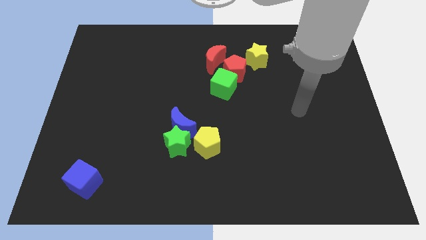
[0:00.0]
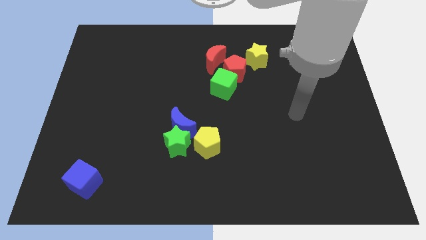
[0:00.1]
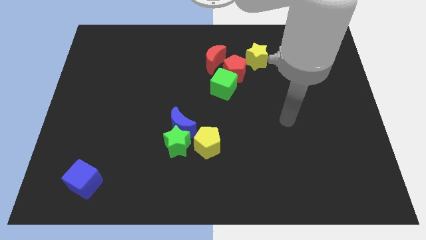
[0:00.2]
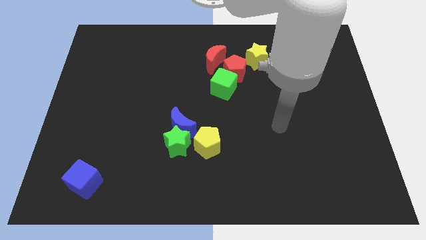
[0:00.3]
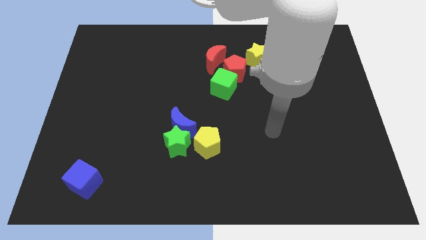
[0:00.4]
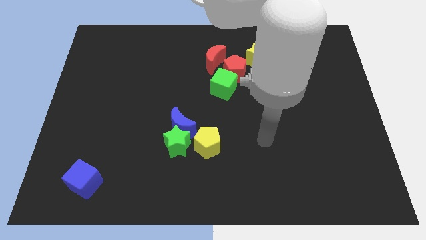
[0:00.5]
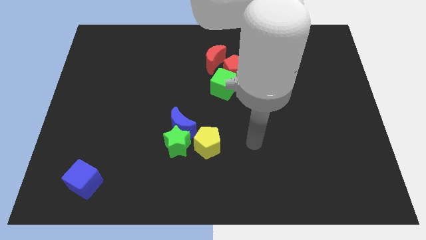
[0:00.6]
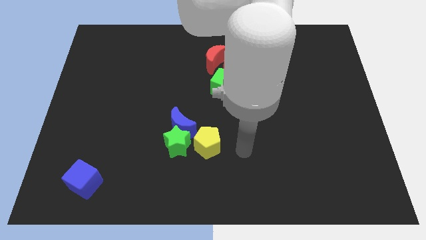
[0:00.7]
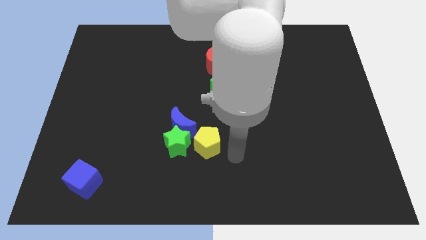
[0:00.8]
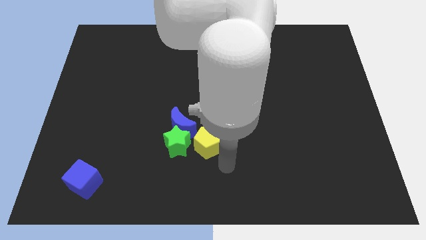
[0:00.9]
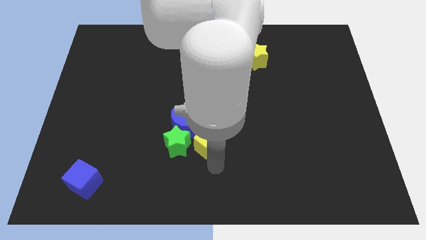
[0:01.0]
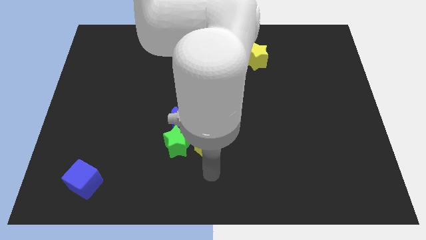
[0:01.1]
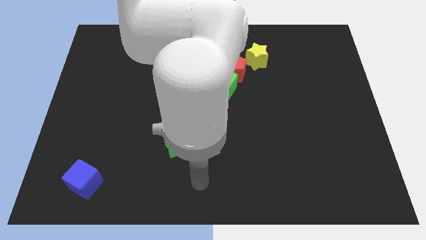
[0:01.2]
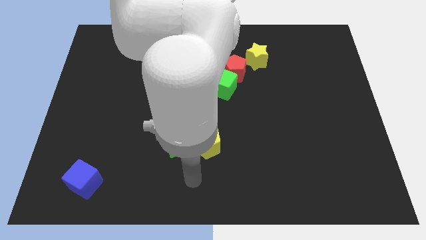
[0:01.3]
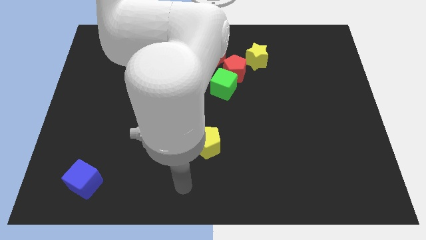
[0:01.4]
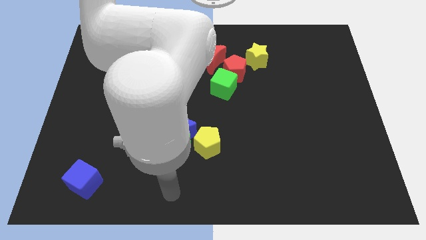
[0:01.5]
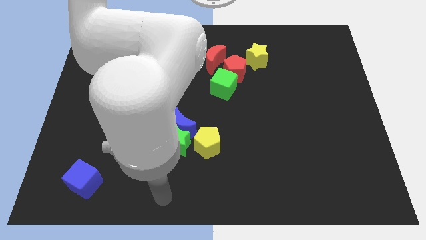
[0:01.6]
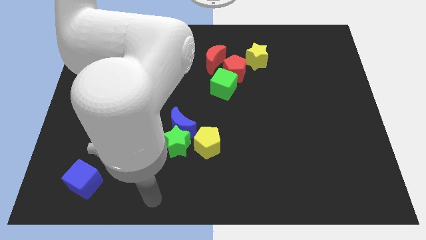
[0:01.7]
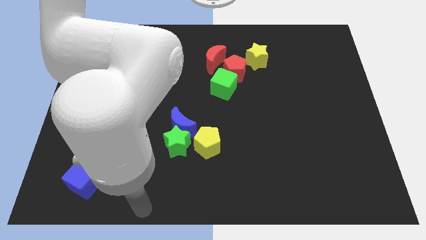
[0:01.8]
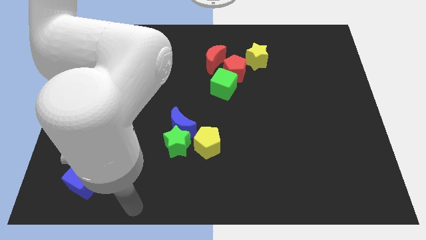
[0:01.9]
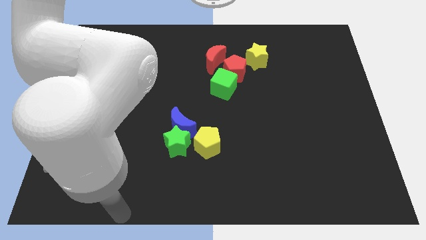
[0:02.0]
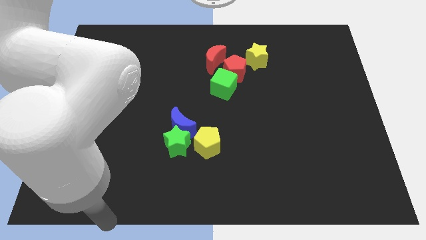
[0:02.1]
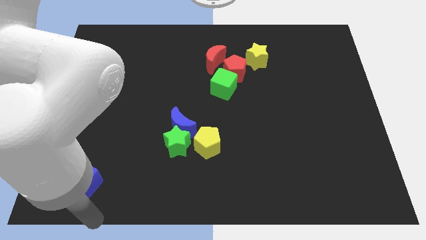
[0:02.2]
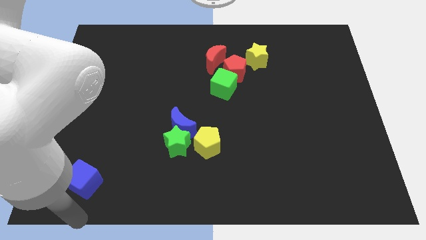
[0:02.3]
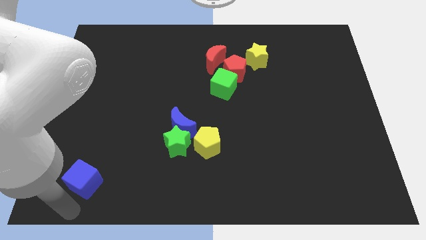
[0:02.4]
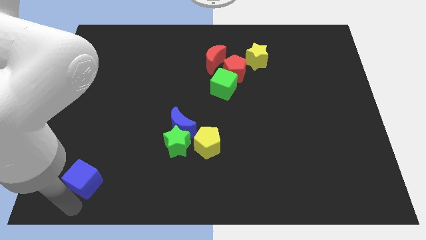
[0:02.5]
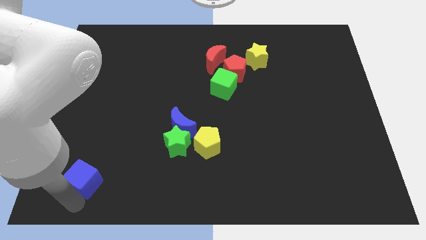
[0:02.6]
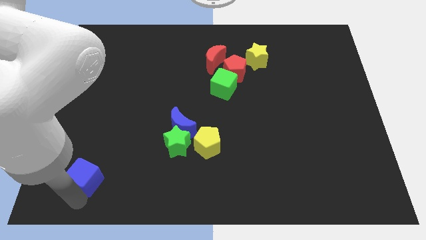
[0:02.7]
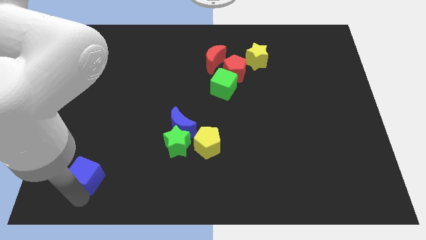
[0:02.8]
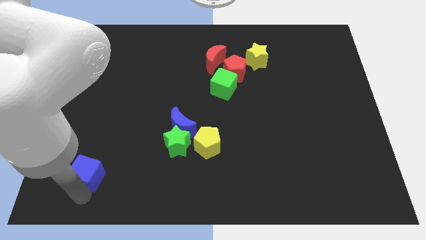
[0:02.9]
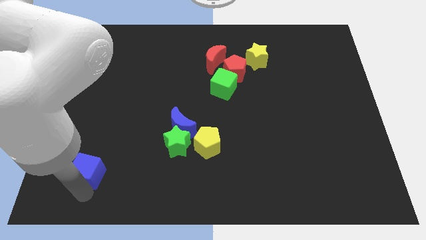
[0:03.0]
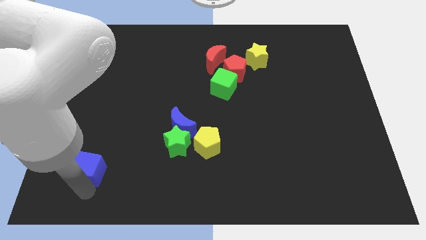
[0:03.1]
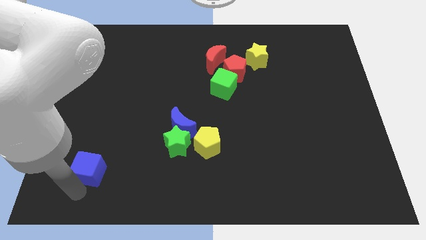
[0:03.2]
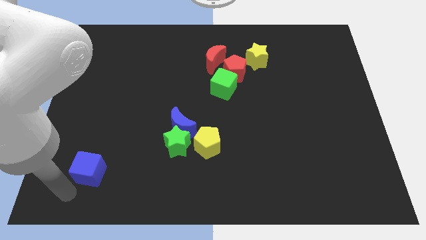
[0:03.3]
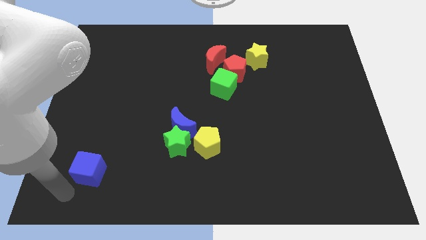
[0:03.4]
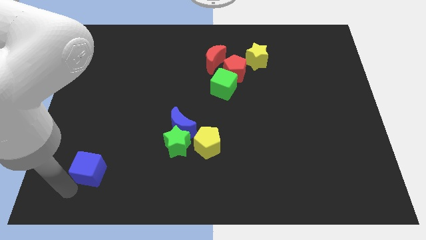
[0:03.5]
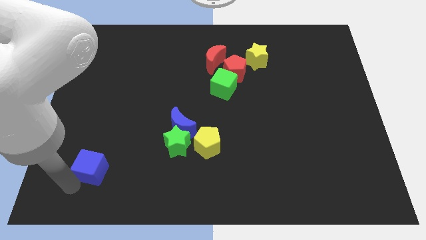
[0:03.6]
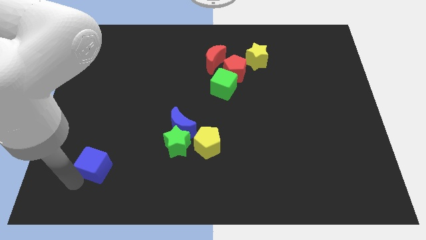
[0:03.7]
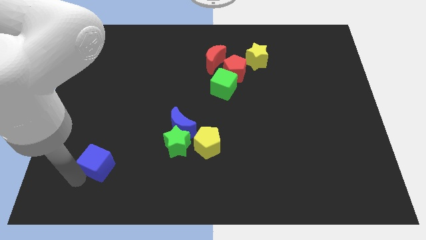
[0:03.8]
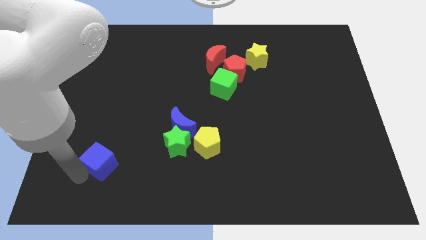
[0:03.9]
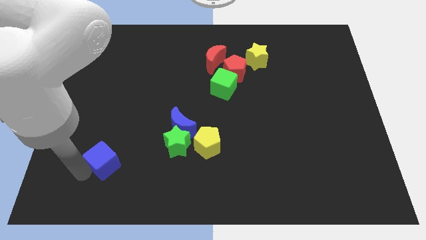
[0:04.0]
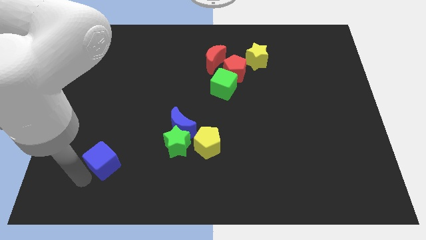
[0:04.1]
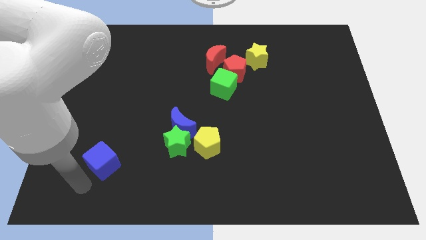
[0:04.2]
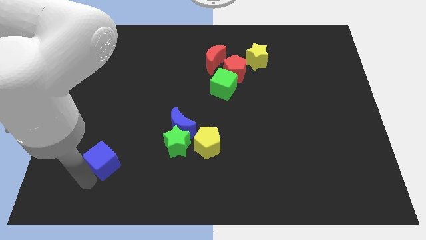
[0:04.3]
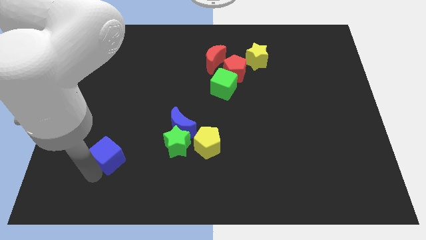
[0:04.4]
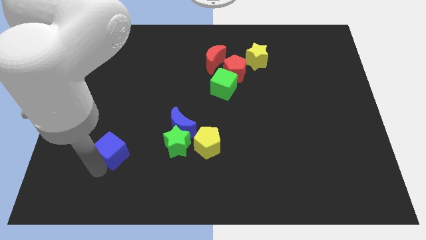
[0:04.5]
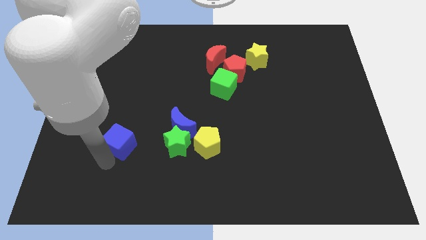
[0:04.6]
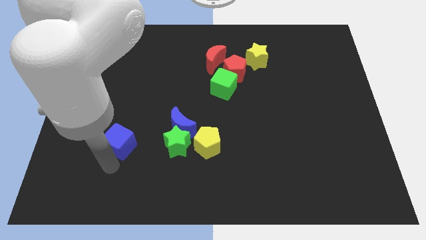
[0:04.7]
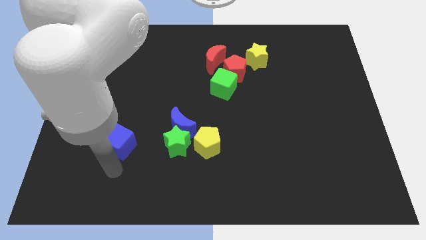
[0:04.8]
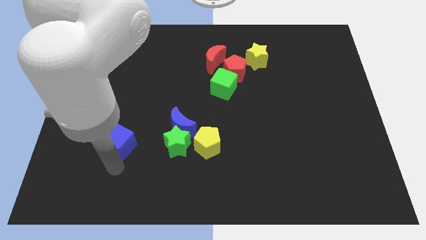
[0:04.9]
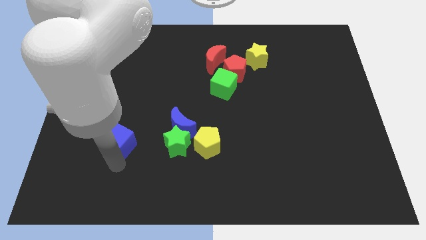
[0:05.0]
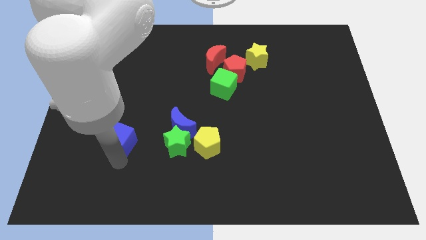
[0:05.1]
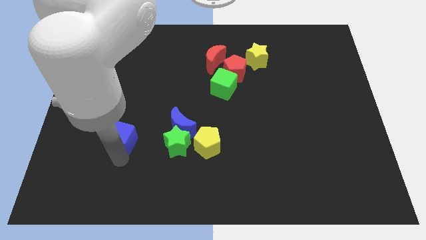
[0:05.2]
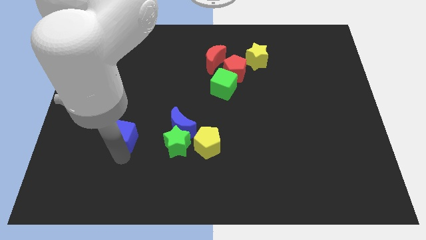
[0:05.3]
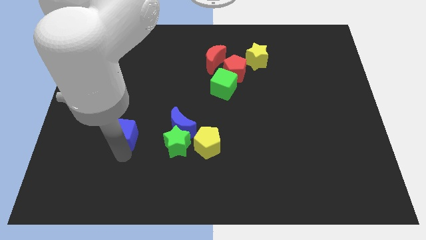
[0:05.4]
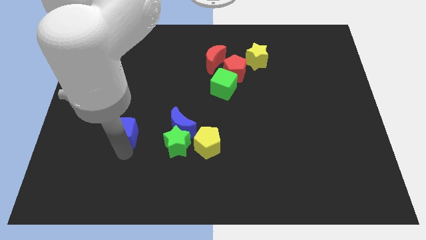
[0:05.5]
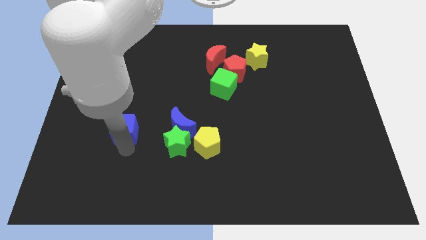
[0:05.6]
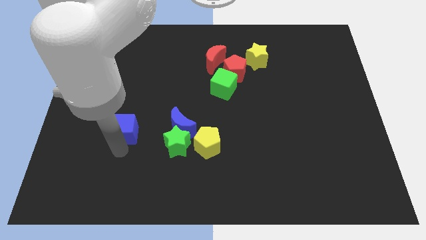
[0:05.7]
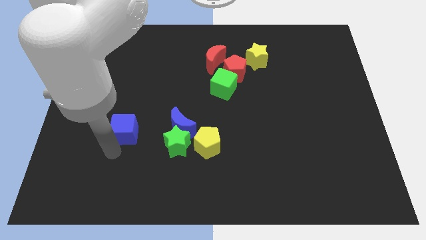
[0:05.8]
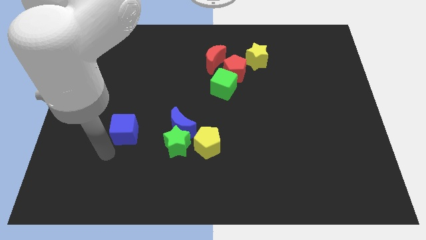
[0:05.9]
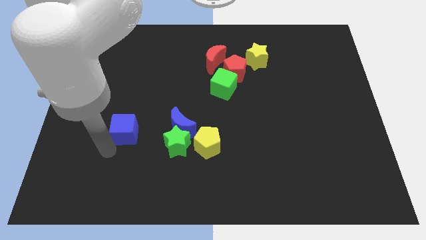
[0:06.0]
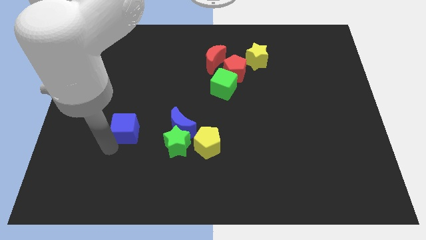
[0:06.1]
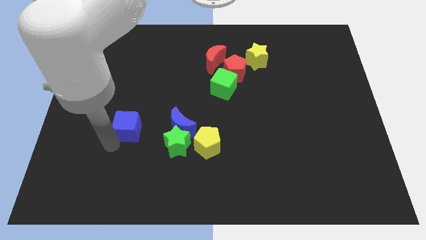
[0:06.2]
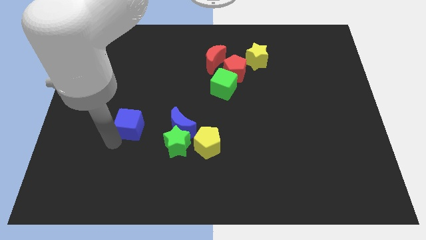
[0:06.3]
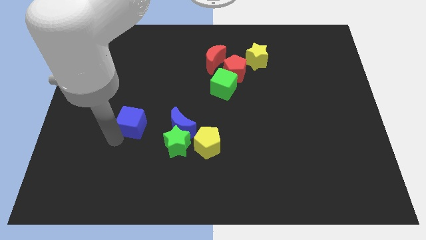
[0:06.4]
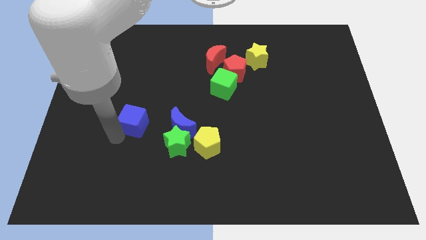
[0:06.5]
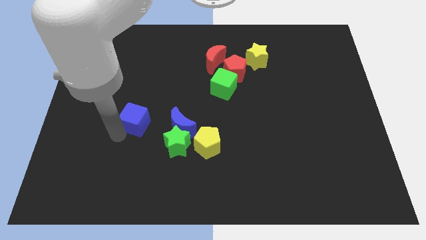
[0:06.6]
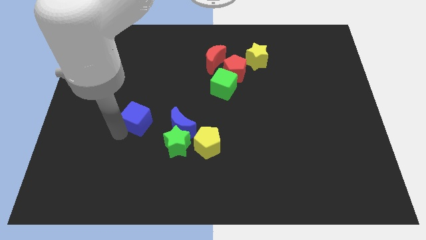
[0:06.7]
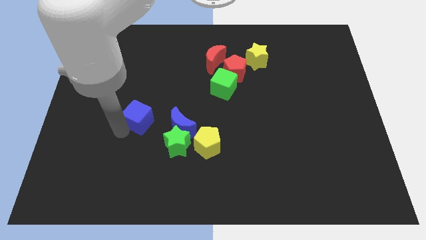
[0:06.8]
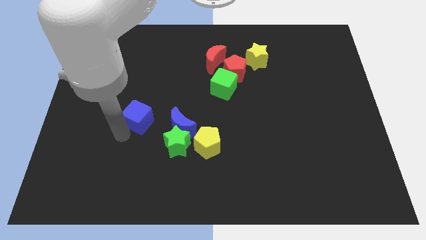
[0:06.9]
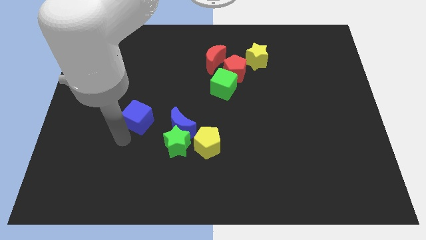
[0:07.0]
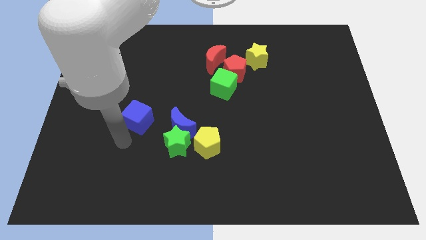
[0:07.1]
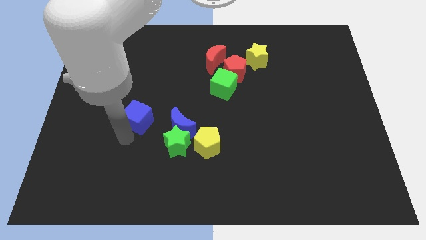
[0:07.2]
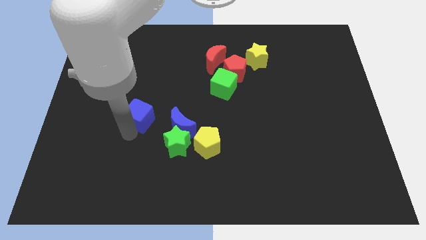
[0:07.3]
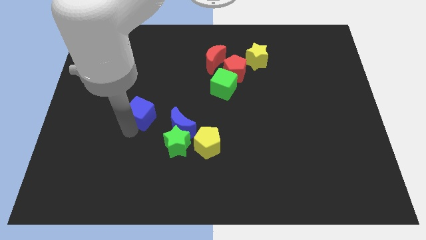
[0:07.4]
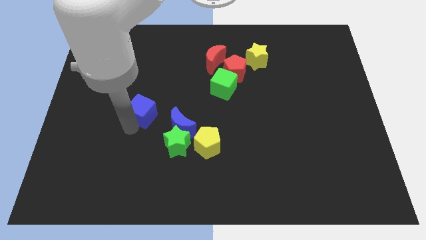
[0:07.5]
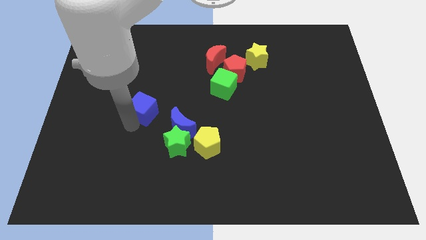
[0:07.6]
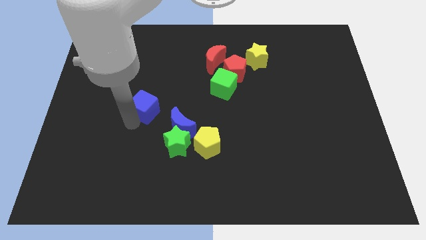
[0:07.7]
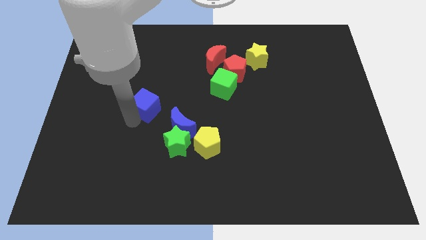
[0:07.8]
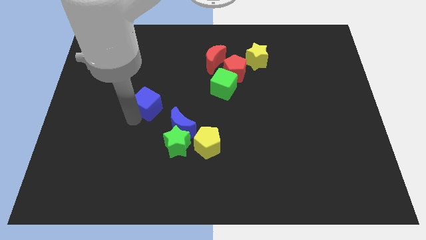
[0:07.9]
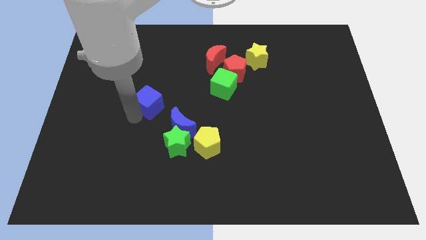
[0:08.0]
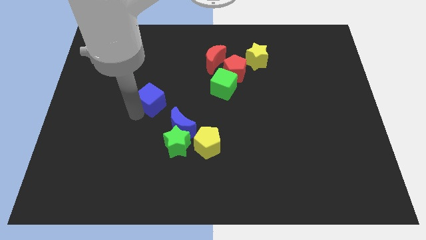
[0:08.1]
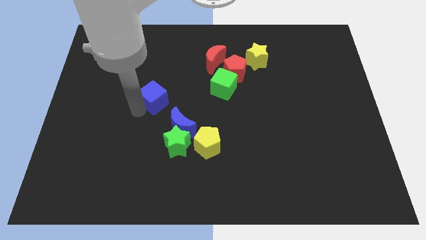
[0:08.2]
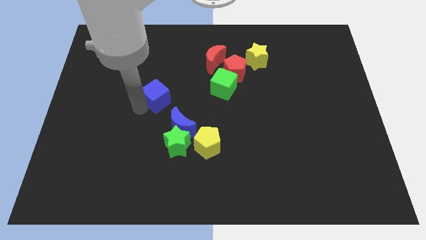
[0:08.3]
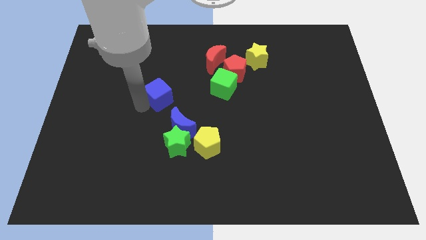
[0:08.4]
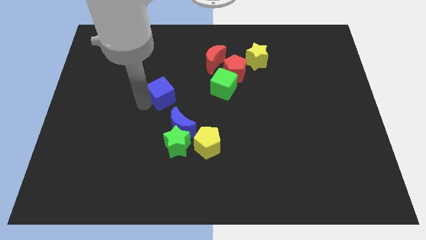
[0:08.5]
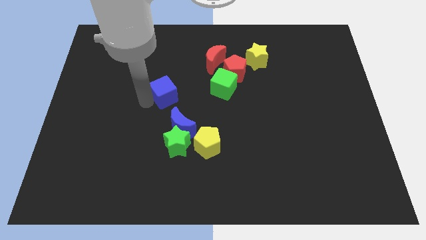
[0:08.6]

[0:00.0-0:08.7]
push the blue cube to the top side of the blue moon
